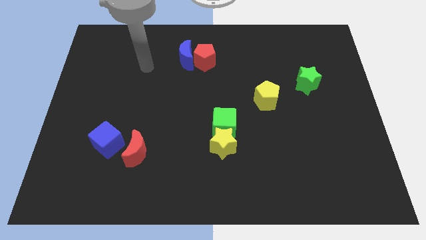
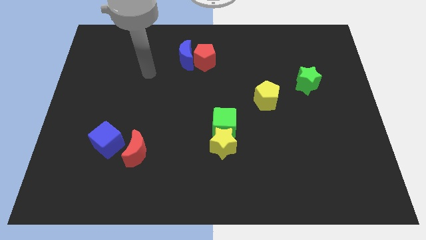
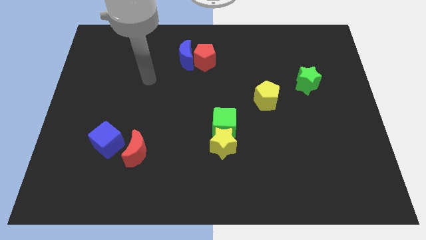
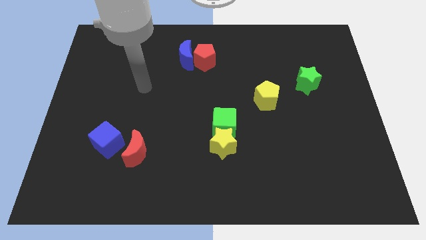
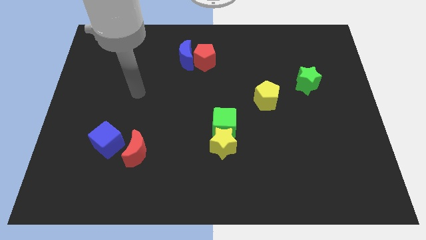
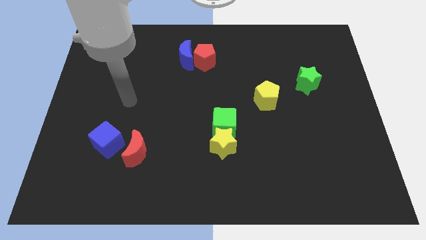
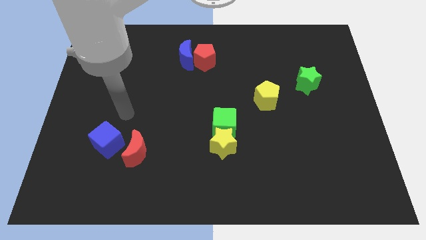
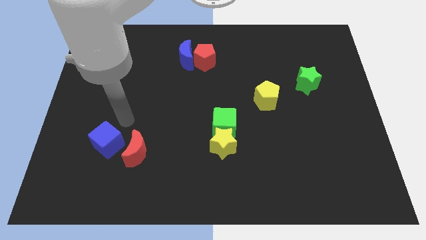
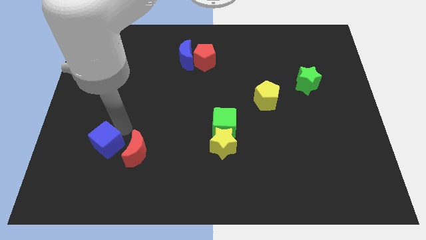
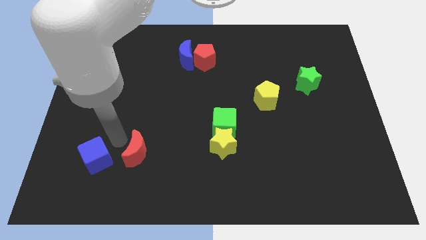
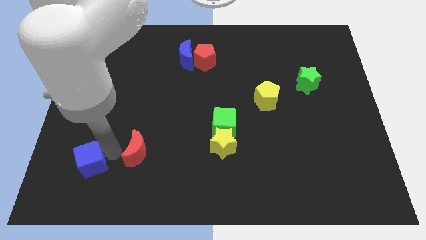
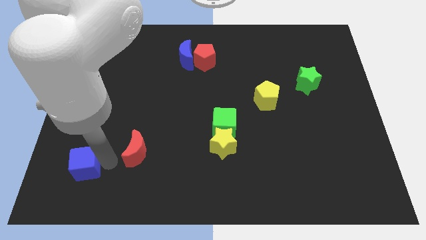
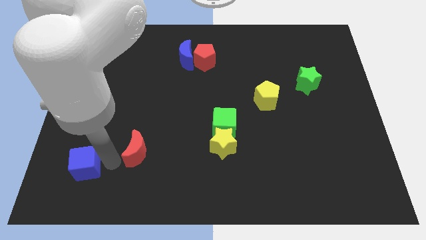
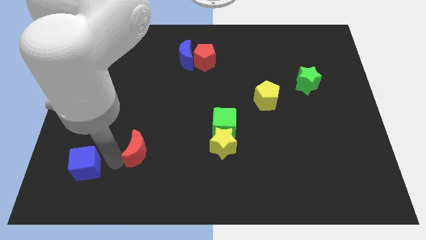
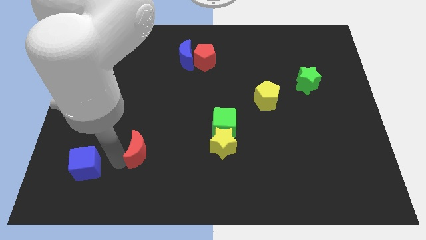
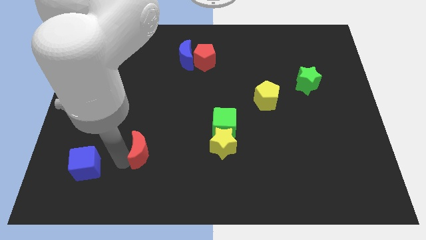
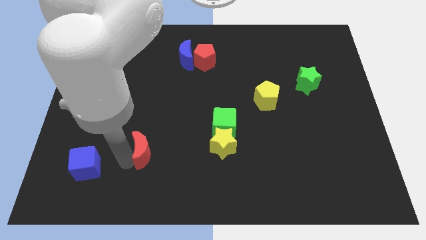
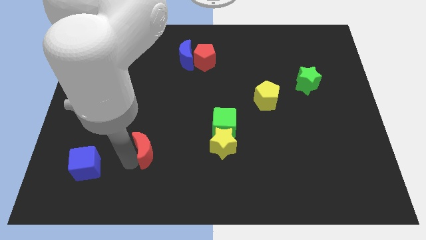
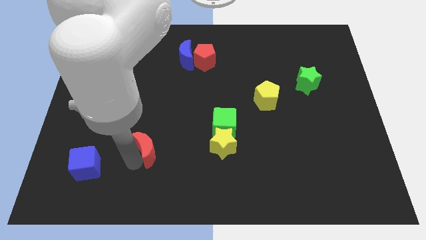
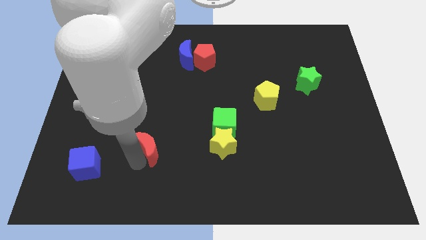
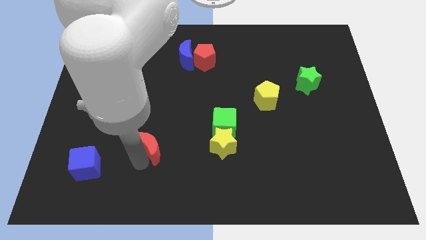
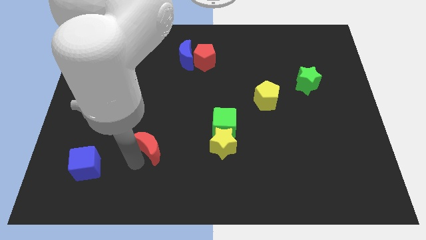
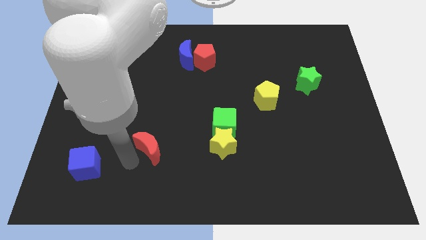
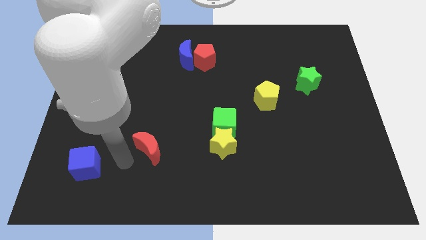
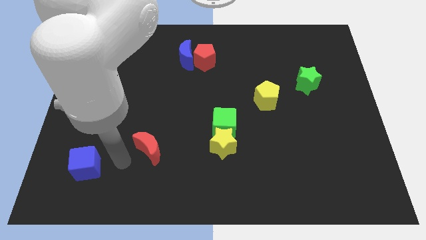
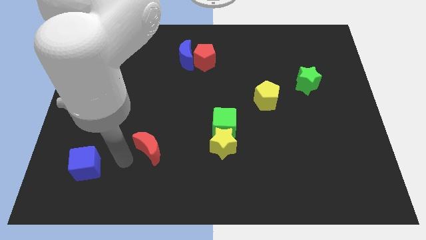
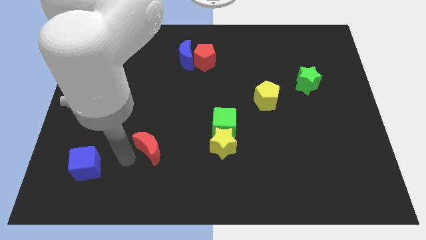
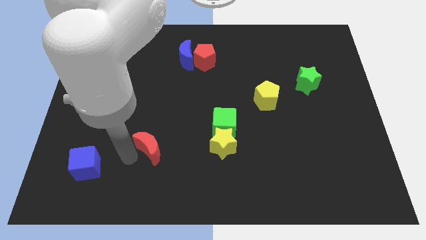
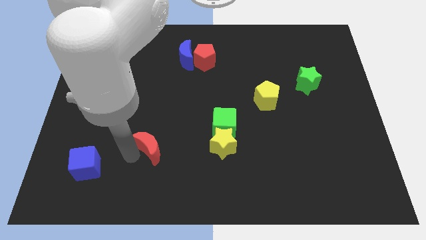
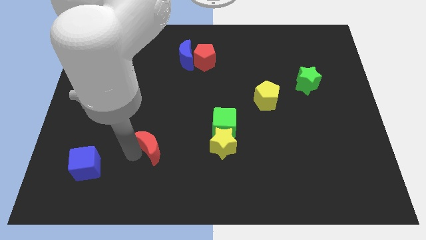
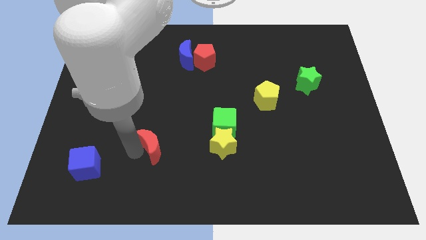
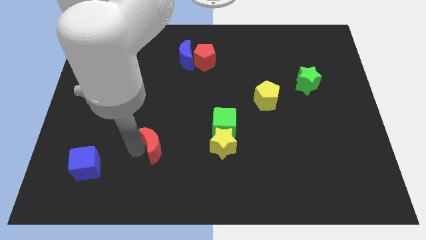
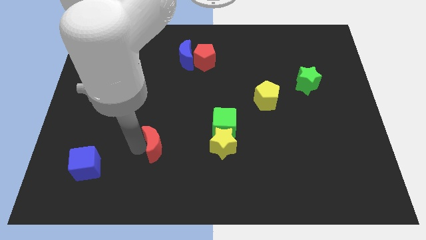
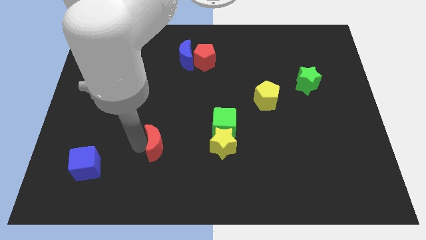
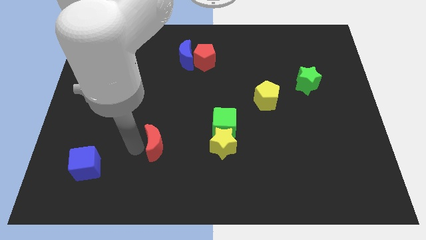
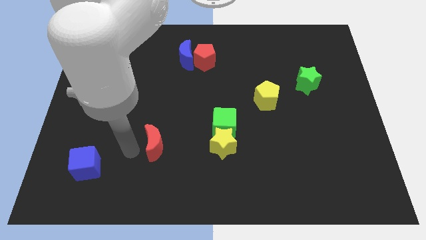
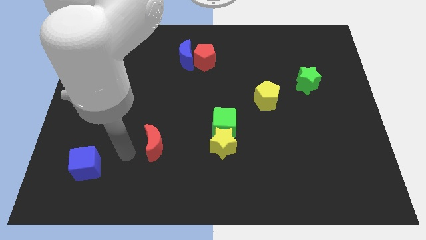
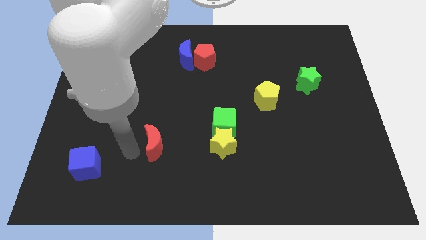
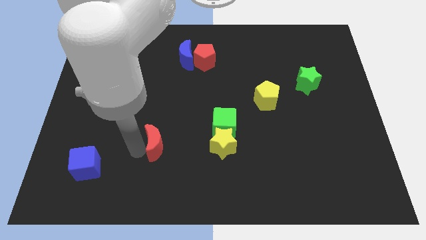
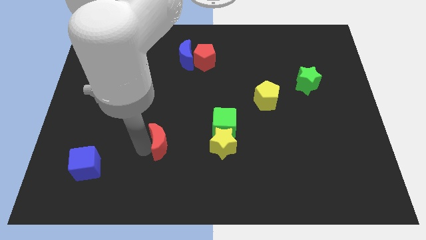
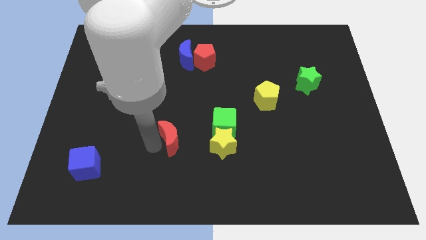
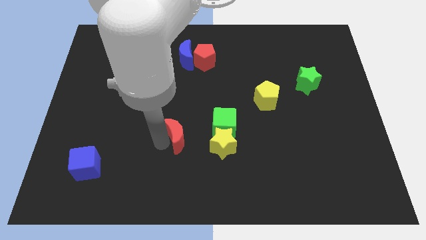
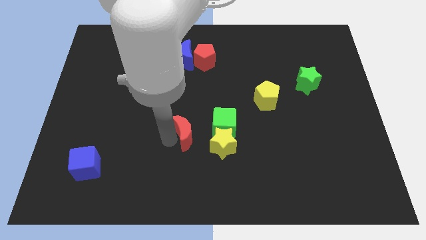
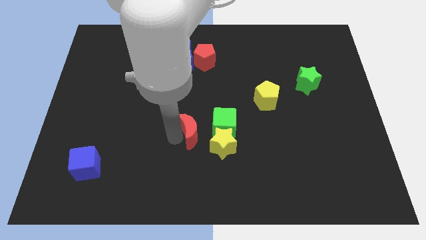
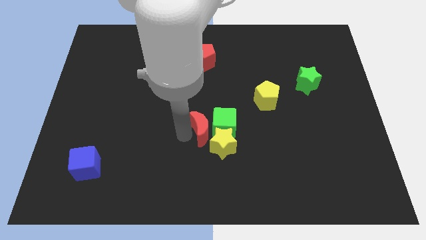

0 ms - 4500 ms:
slide the red moon next to the green cube

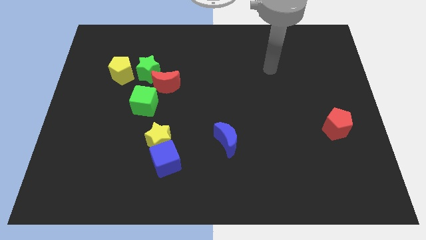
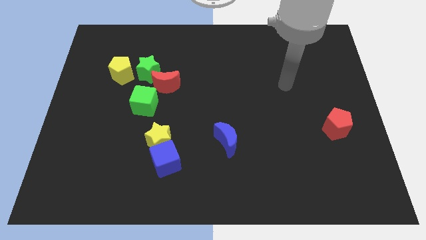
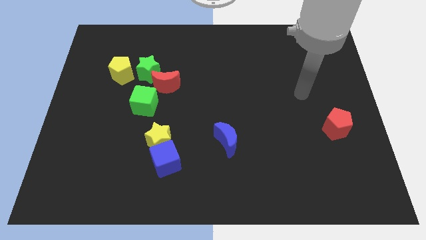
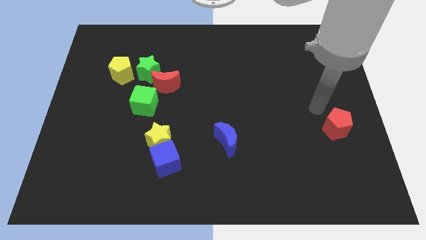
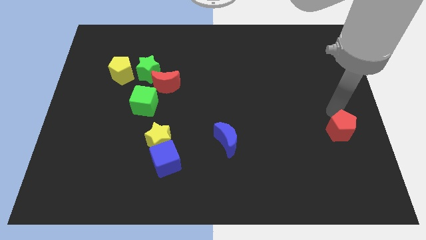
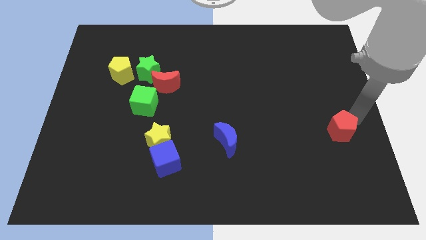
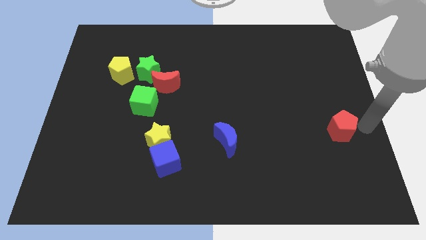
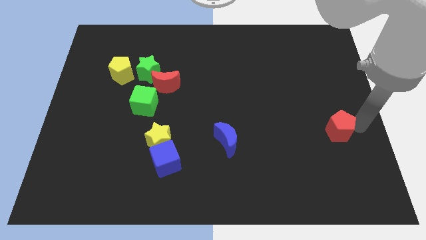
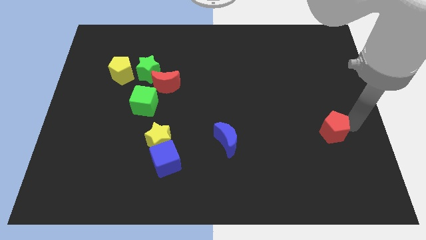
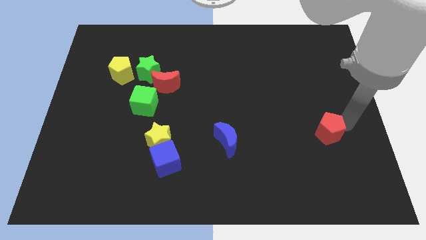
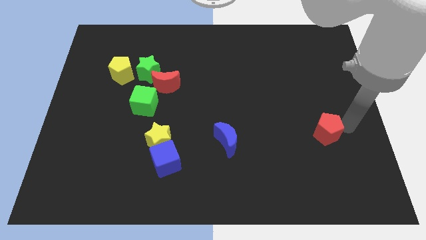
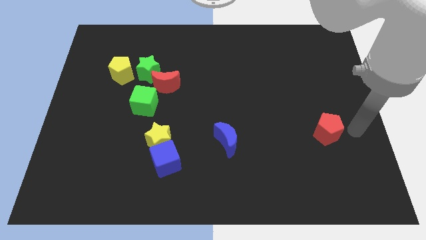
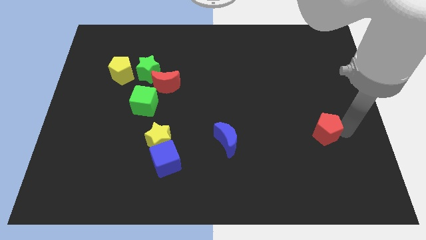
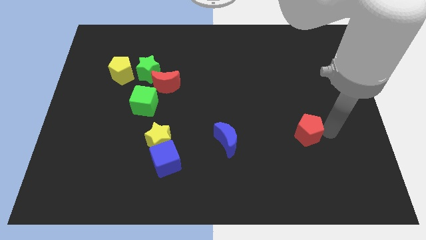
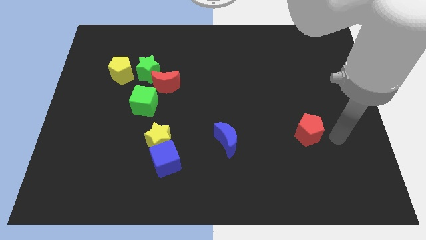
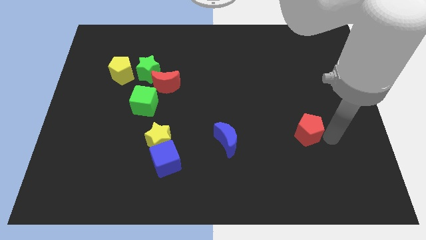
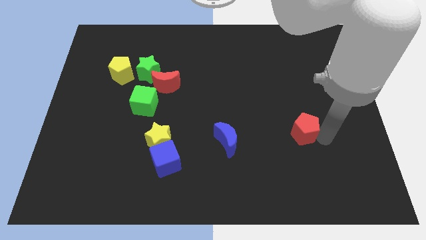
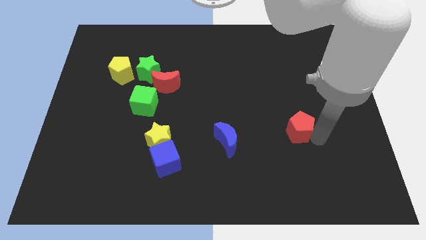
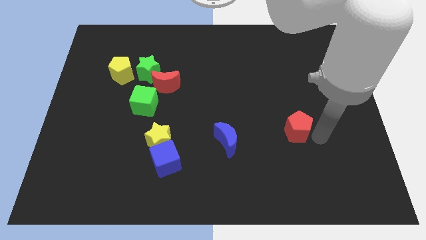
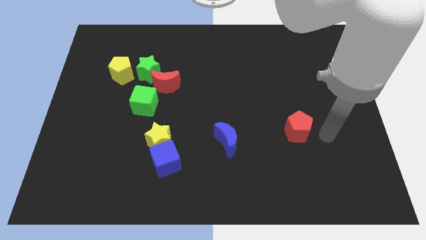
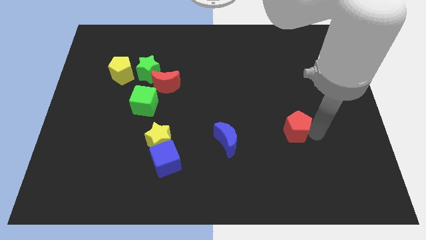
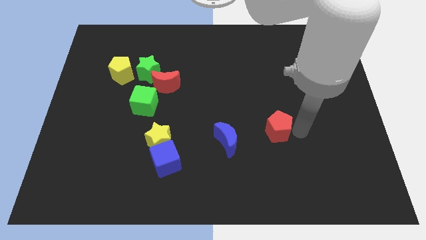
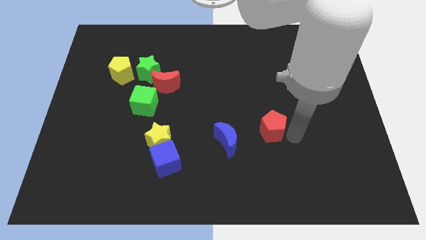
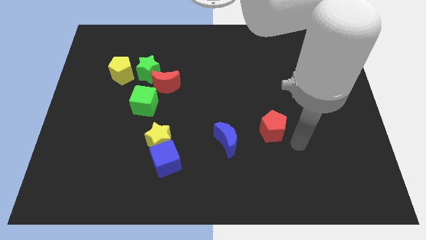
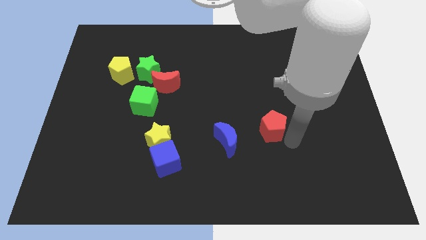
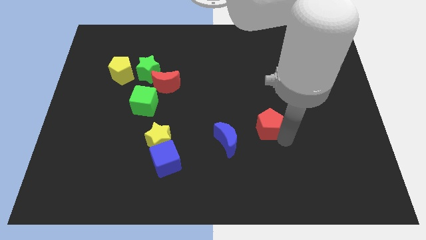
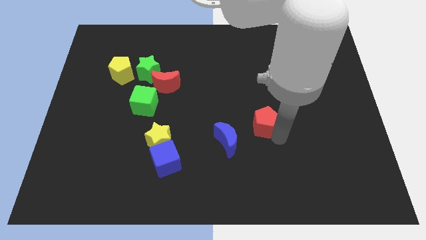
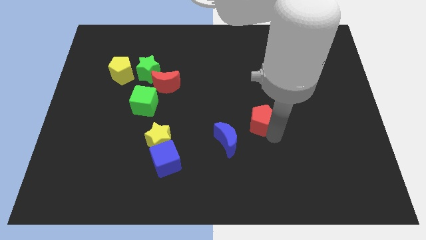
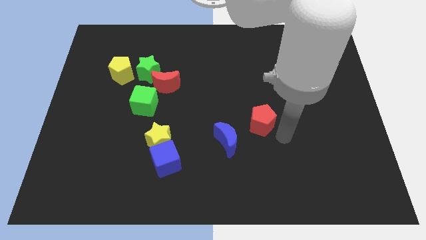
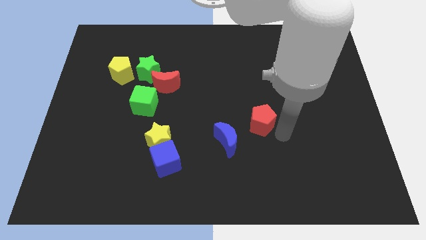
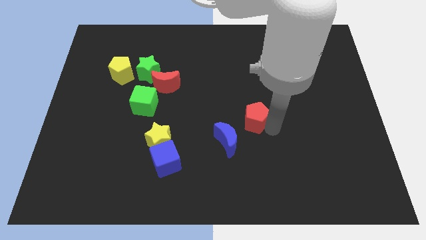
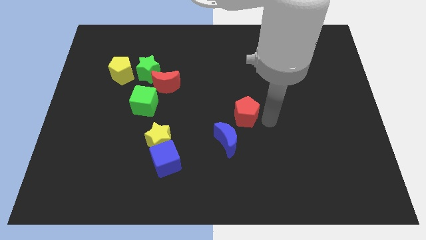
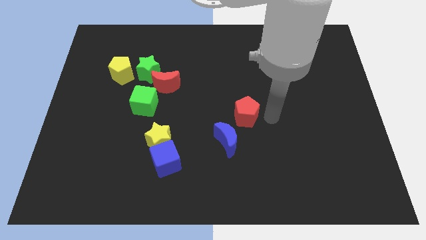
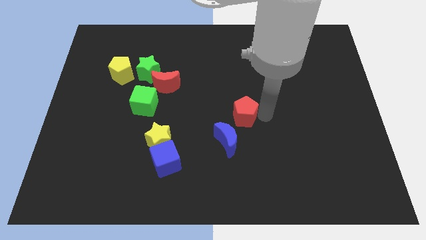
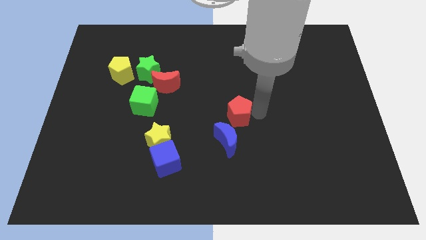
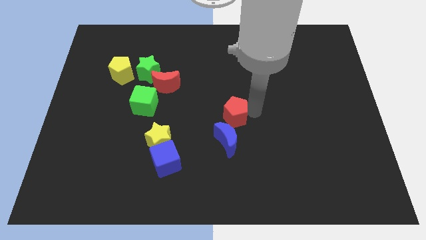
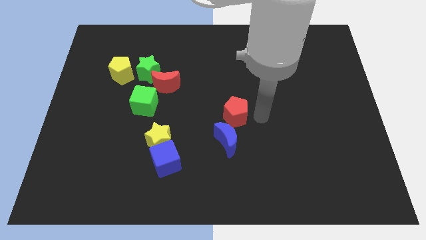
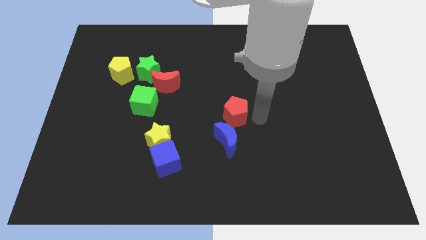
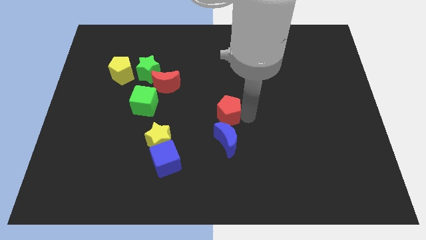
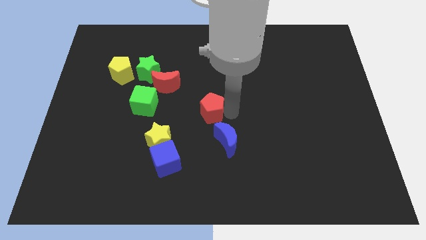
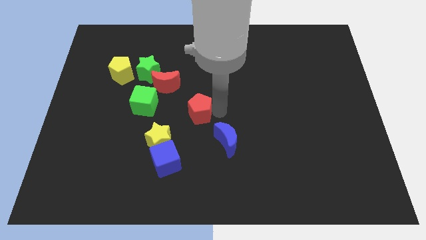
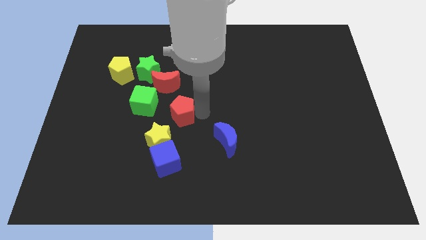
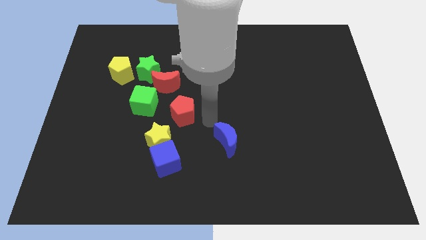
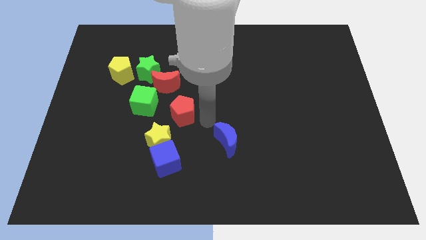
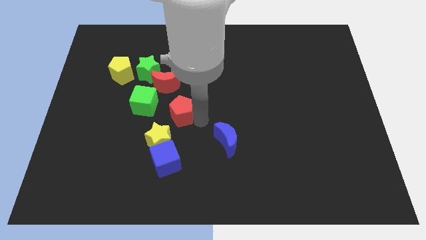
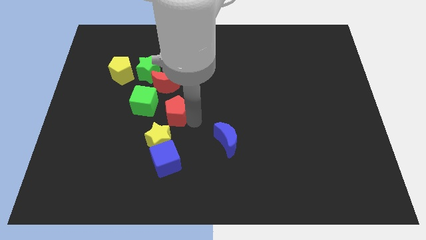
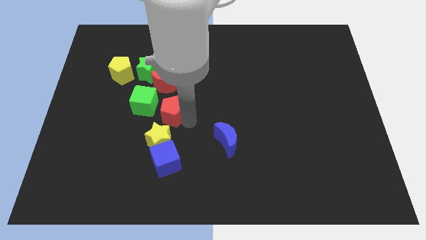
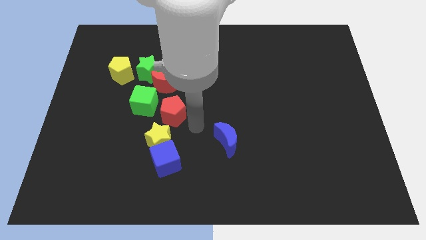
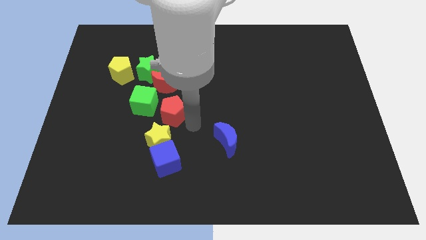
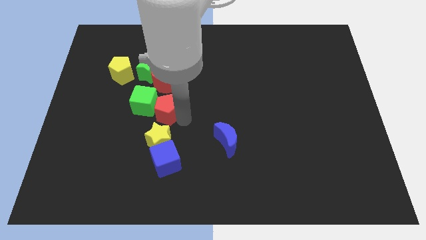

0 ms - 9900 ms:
put the red pentagon next to the green cube
